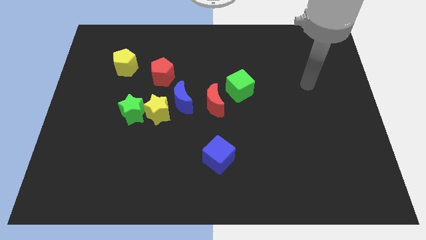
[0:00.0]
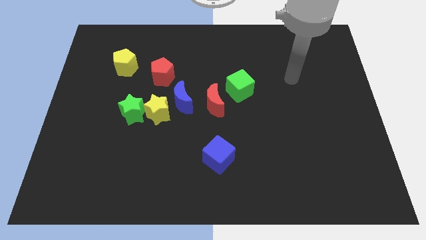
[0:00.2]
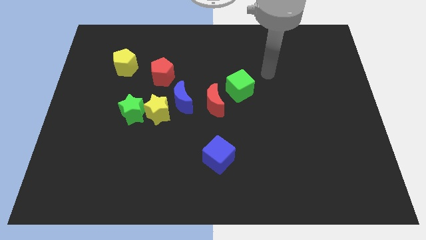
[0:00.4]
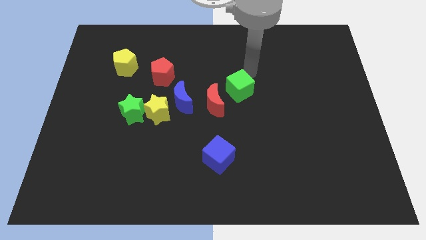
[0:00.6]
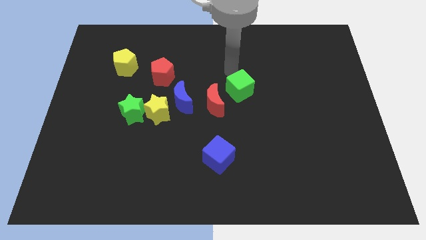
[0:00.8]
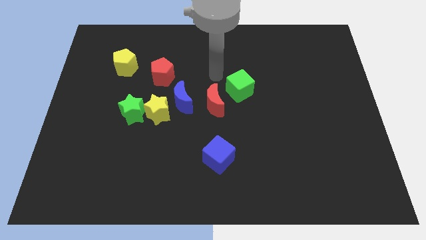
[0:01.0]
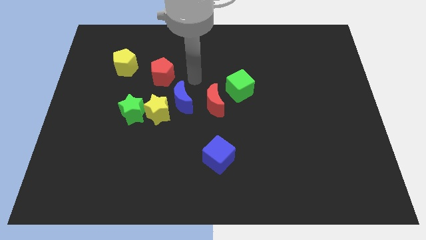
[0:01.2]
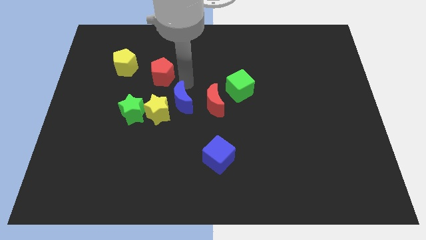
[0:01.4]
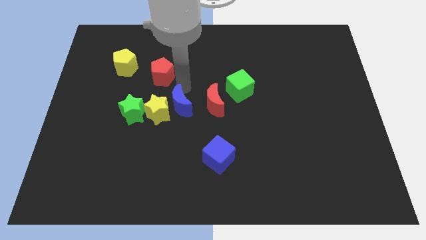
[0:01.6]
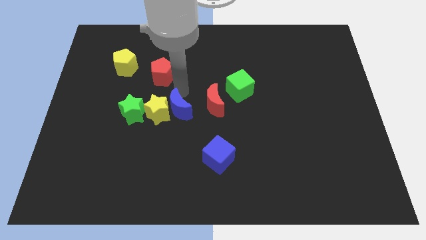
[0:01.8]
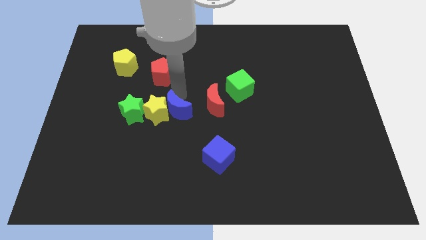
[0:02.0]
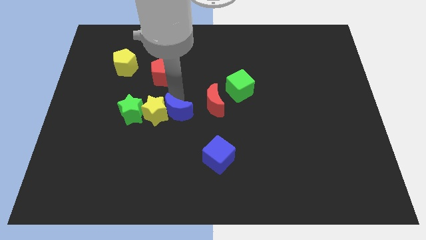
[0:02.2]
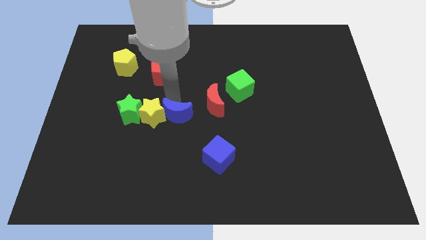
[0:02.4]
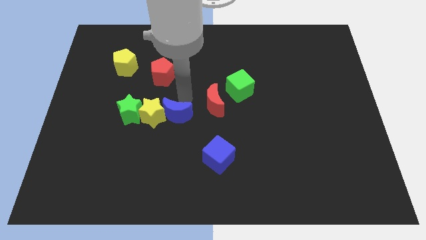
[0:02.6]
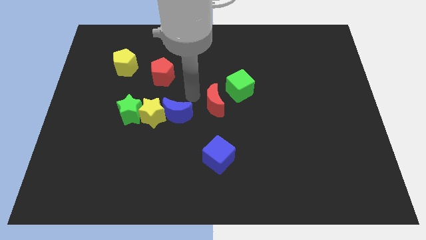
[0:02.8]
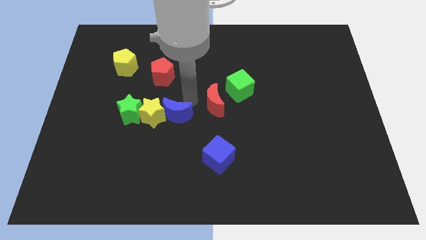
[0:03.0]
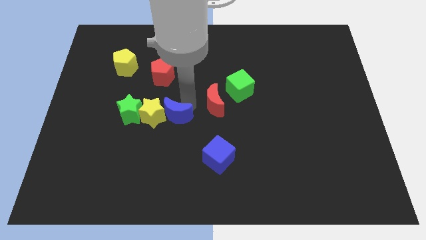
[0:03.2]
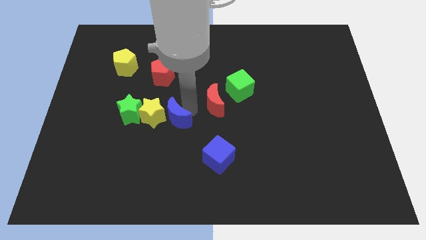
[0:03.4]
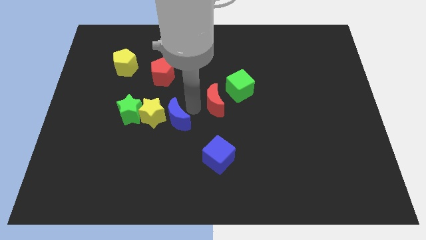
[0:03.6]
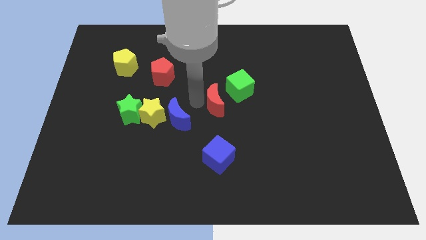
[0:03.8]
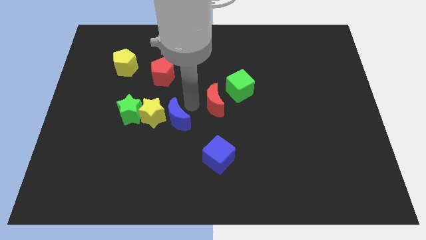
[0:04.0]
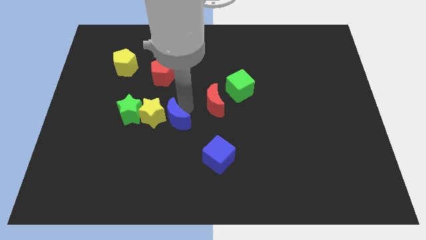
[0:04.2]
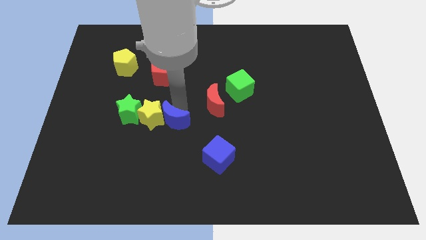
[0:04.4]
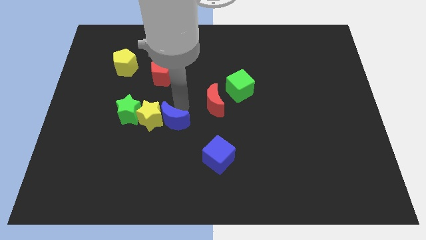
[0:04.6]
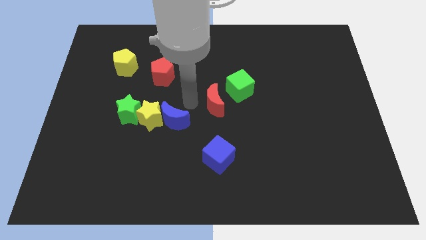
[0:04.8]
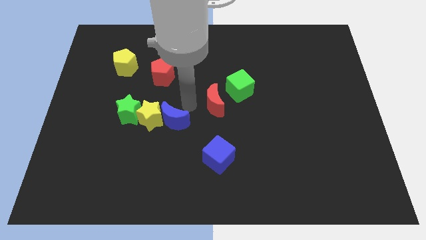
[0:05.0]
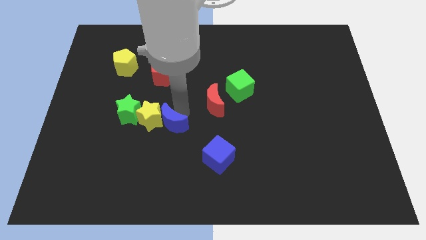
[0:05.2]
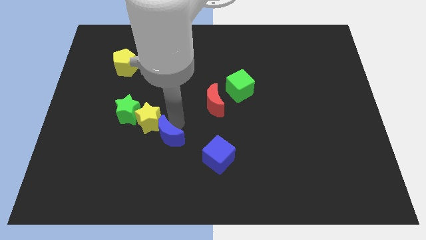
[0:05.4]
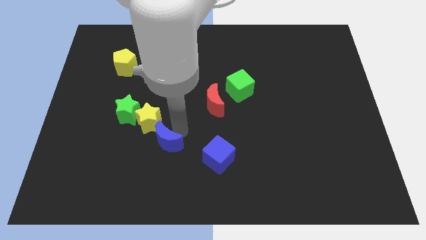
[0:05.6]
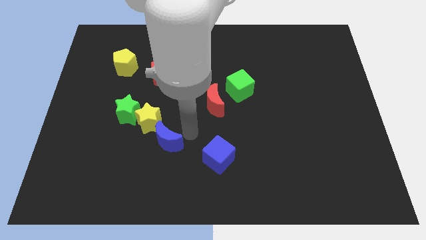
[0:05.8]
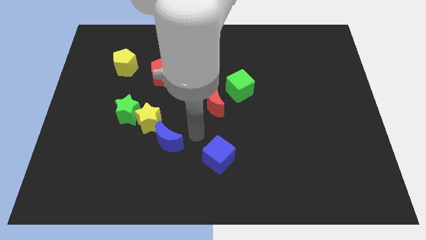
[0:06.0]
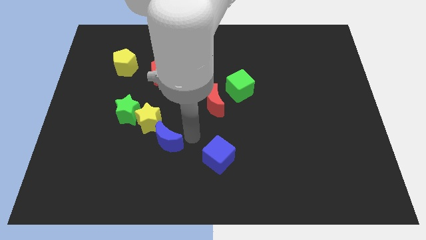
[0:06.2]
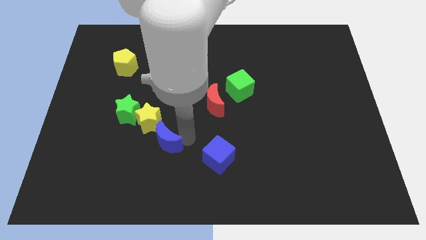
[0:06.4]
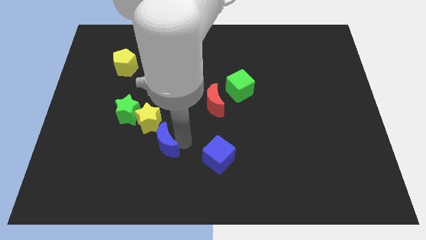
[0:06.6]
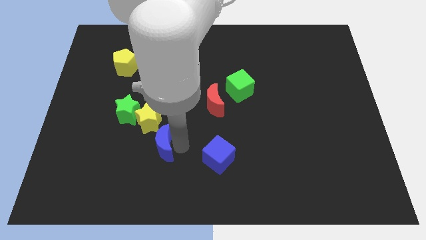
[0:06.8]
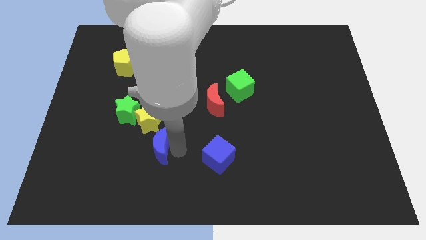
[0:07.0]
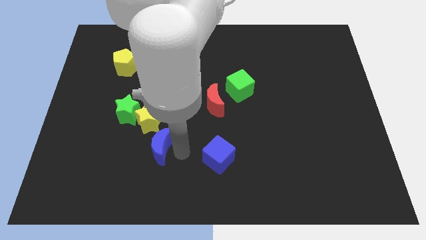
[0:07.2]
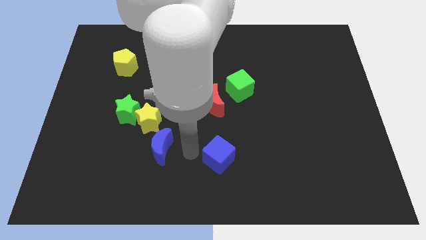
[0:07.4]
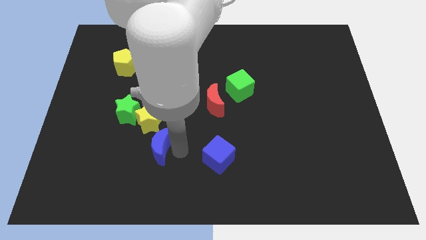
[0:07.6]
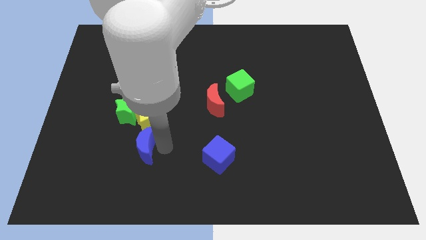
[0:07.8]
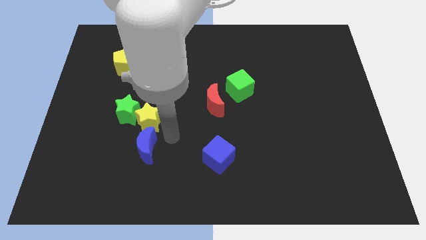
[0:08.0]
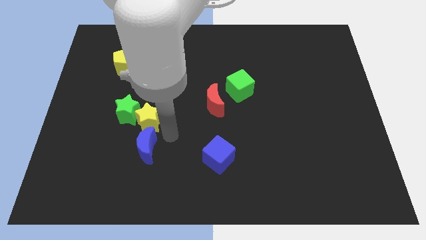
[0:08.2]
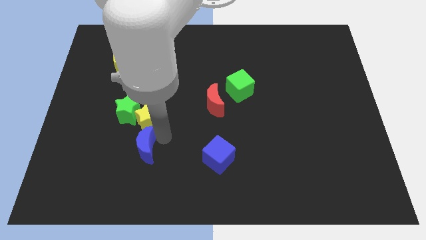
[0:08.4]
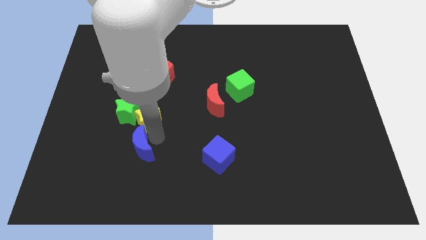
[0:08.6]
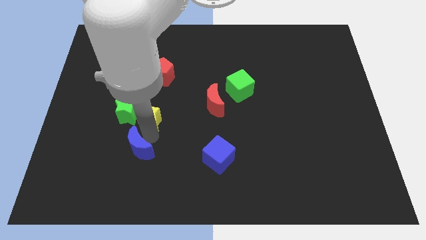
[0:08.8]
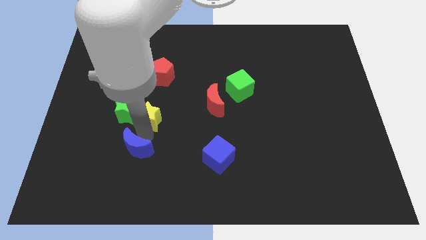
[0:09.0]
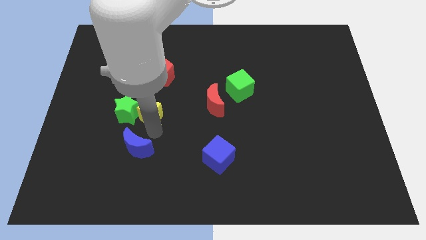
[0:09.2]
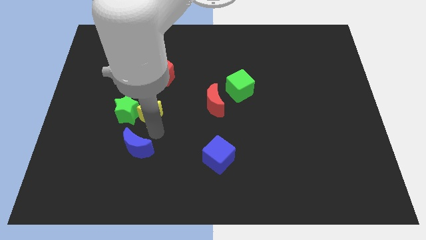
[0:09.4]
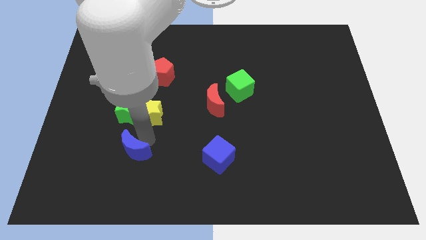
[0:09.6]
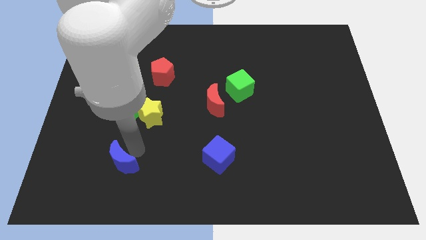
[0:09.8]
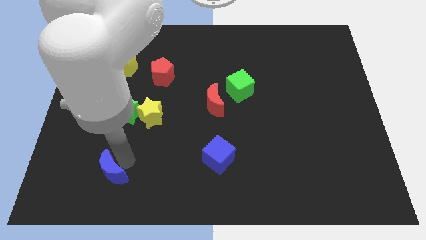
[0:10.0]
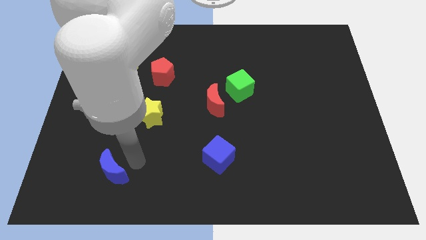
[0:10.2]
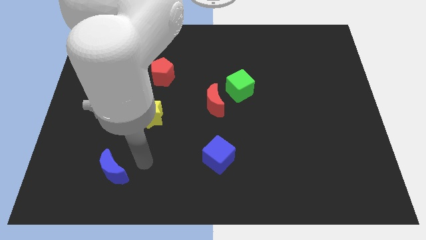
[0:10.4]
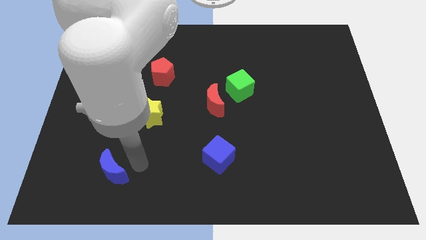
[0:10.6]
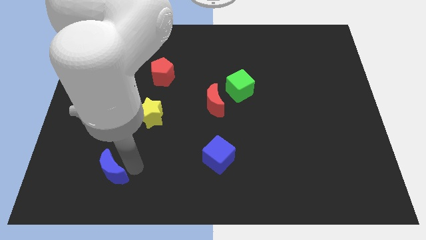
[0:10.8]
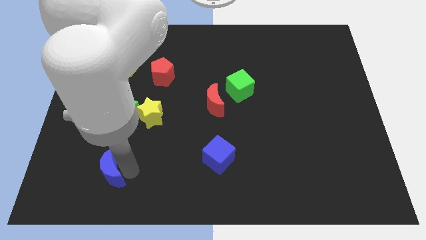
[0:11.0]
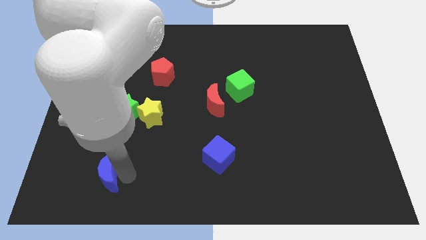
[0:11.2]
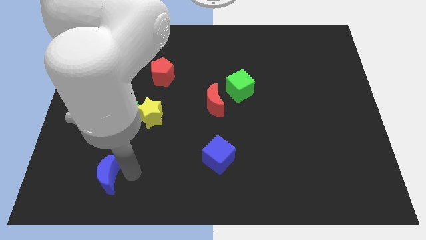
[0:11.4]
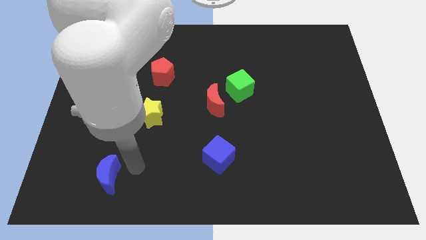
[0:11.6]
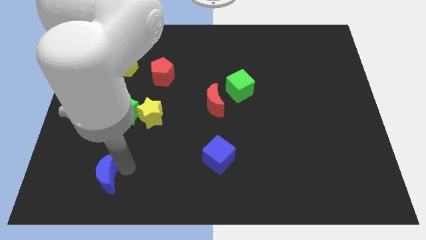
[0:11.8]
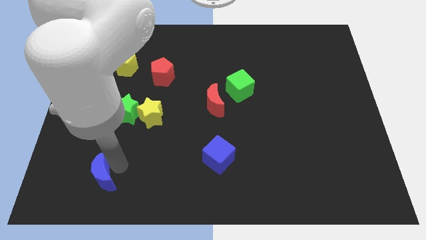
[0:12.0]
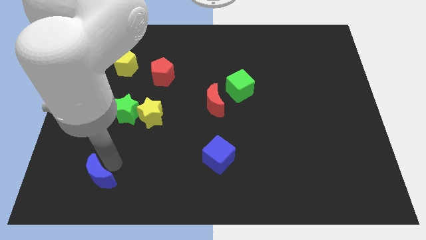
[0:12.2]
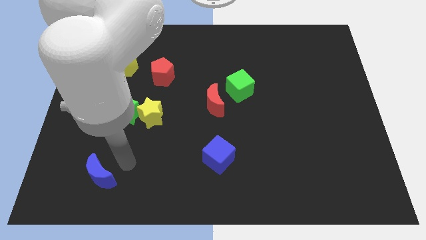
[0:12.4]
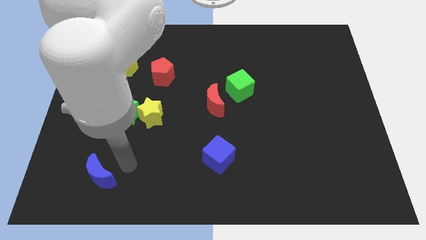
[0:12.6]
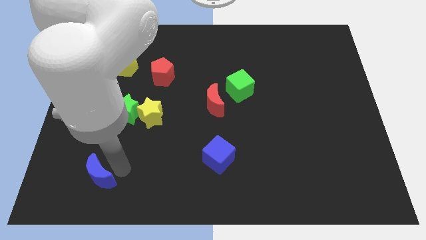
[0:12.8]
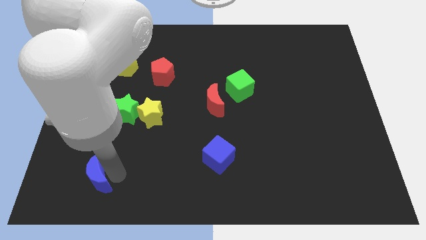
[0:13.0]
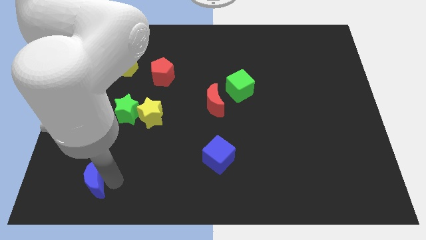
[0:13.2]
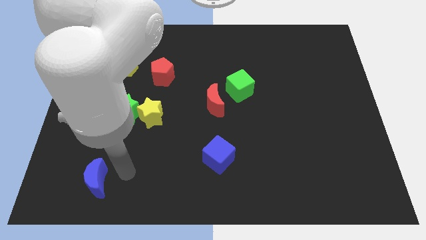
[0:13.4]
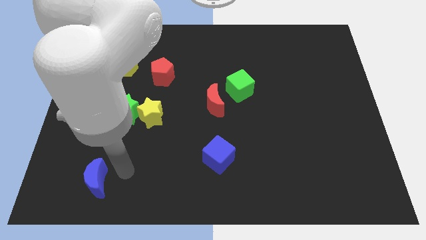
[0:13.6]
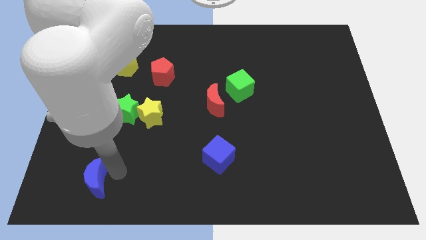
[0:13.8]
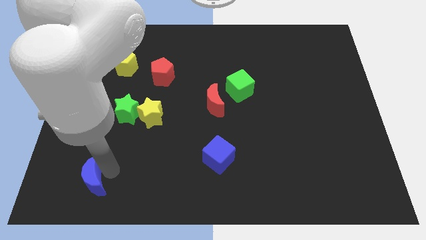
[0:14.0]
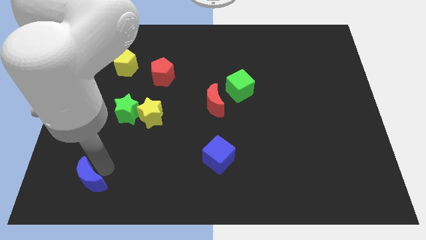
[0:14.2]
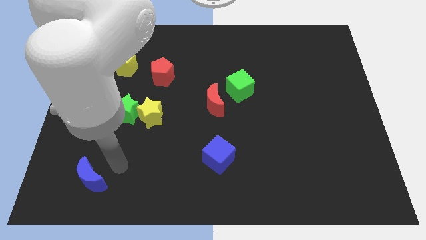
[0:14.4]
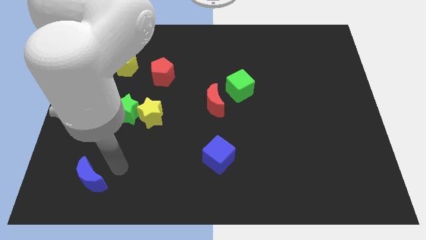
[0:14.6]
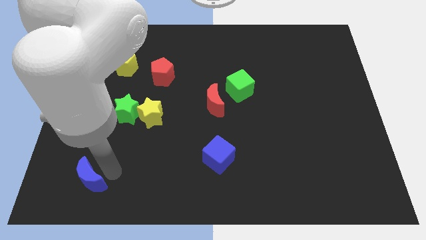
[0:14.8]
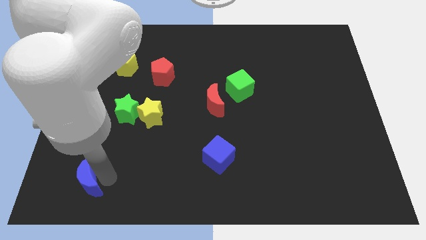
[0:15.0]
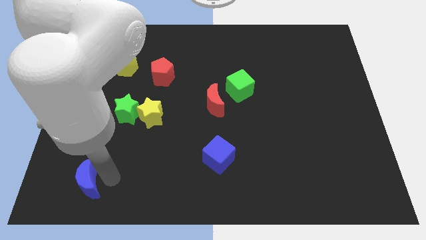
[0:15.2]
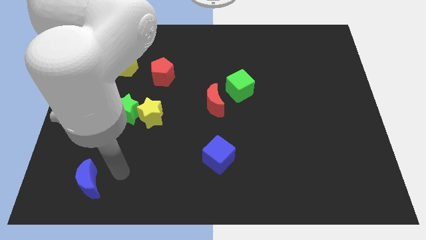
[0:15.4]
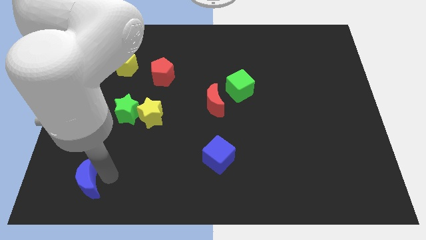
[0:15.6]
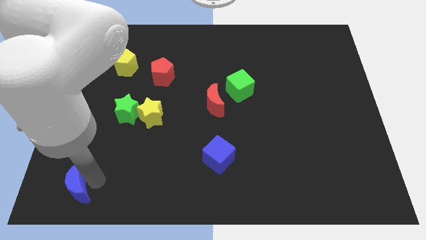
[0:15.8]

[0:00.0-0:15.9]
slide the blue moon to the lower left corner
